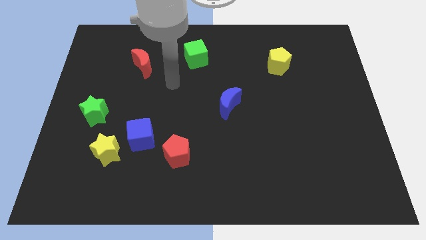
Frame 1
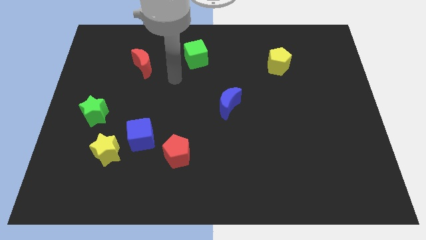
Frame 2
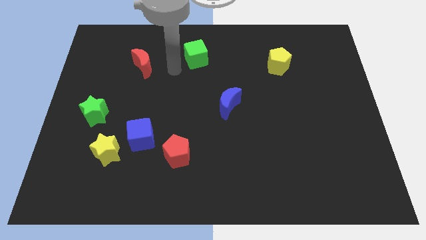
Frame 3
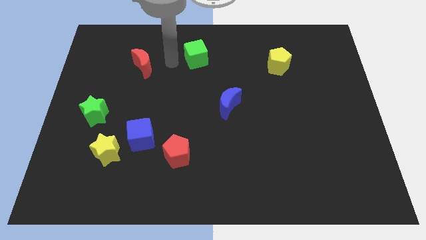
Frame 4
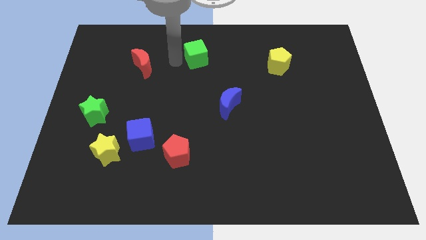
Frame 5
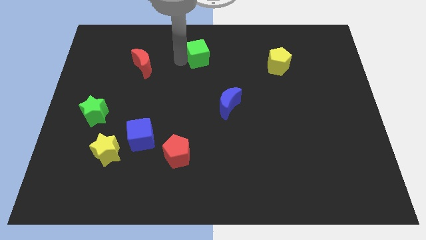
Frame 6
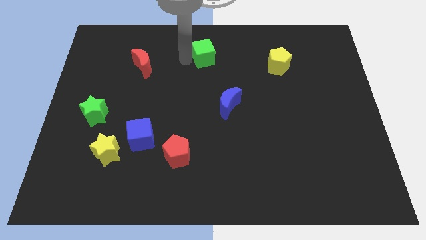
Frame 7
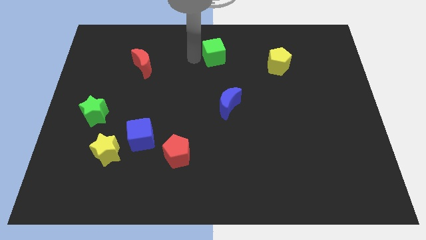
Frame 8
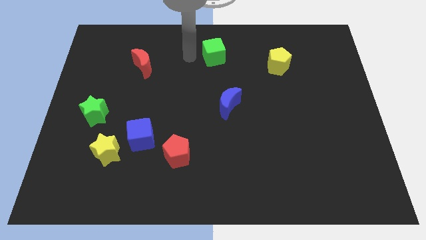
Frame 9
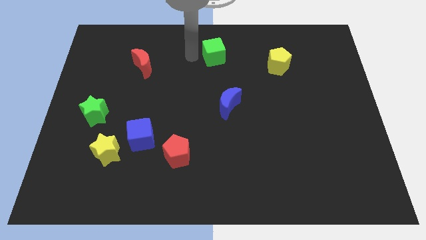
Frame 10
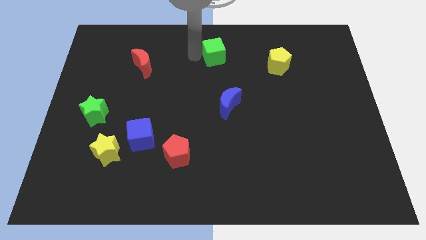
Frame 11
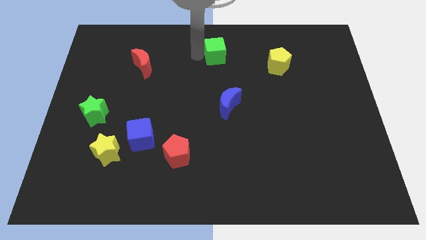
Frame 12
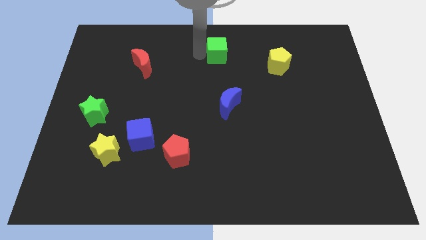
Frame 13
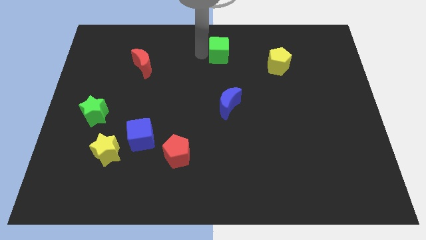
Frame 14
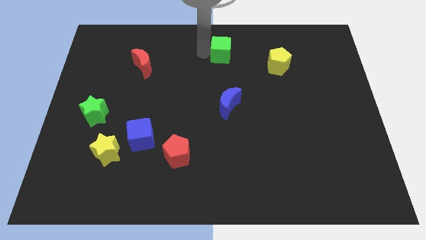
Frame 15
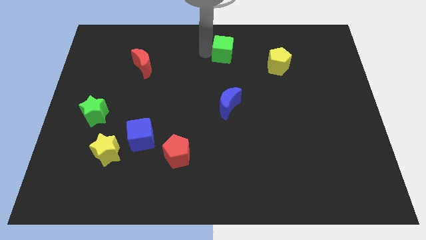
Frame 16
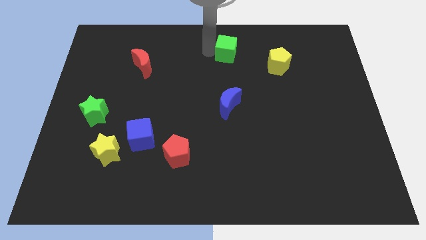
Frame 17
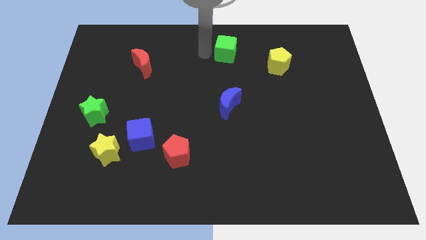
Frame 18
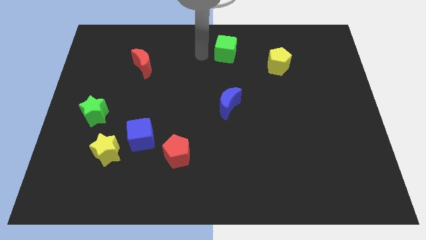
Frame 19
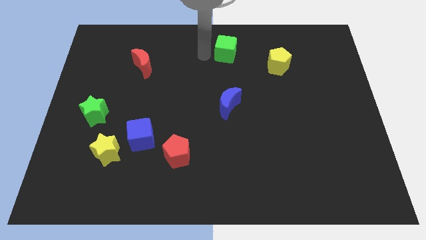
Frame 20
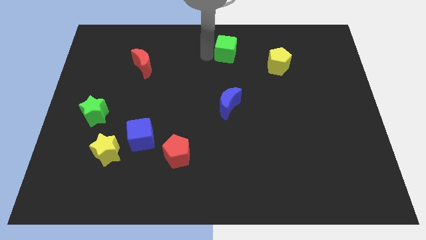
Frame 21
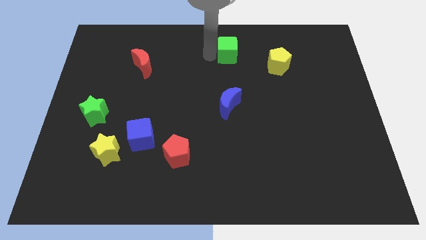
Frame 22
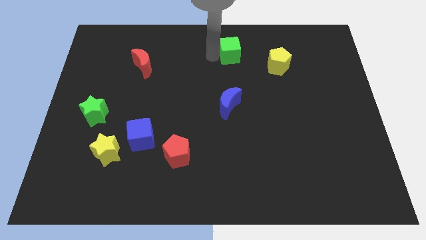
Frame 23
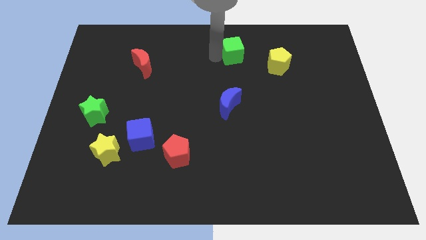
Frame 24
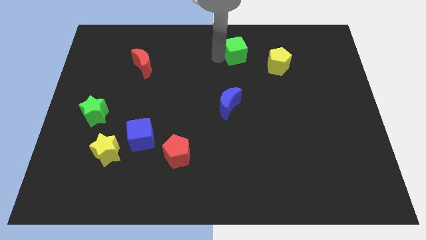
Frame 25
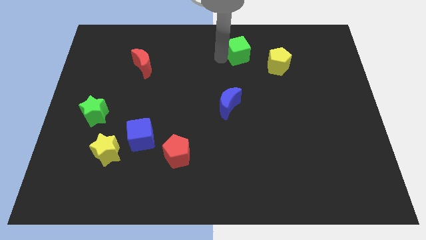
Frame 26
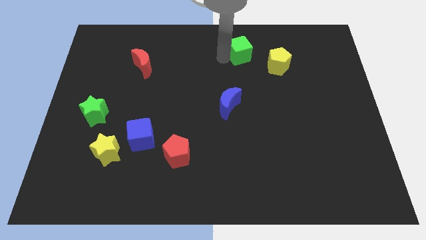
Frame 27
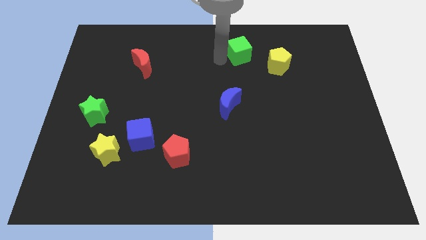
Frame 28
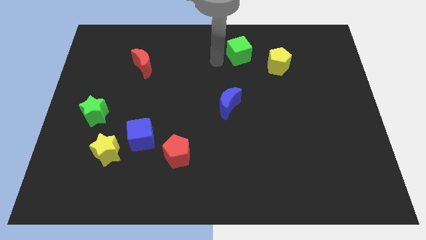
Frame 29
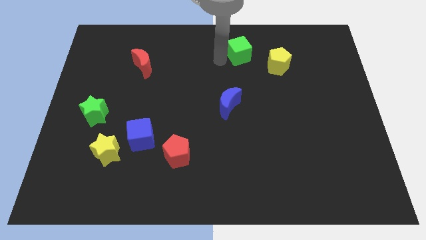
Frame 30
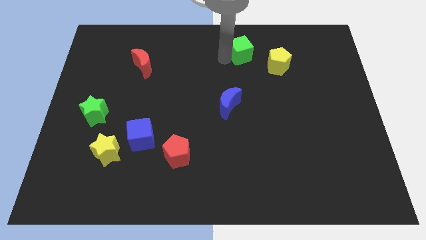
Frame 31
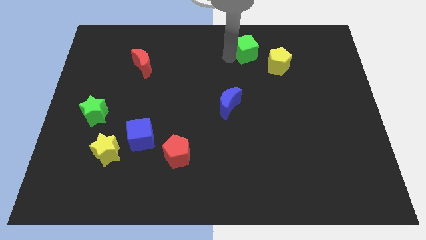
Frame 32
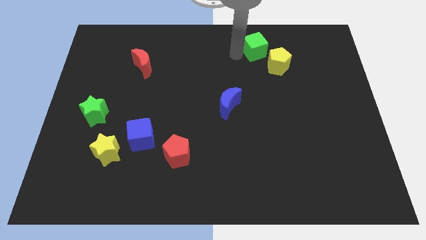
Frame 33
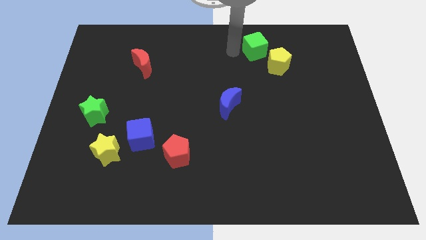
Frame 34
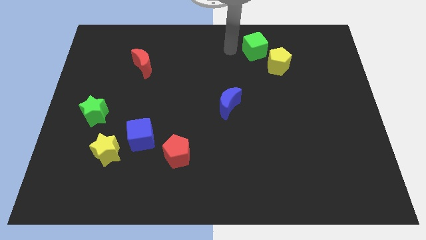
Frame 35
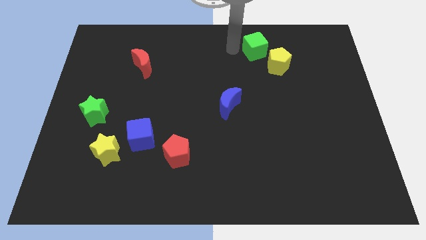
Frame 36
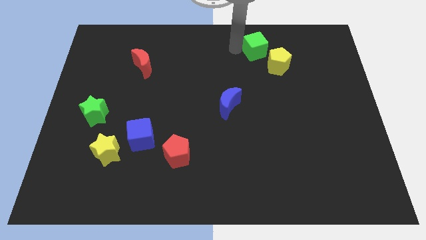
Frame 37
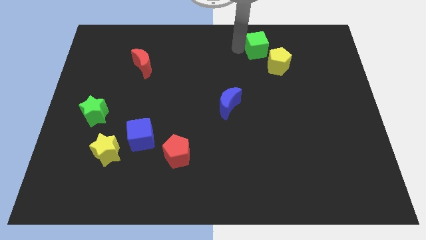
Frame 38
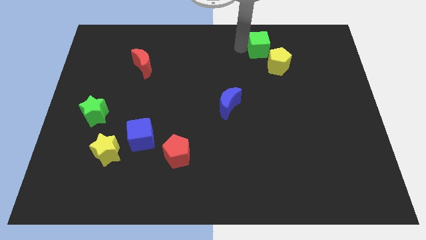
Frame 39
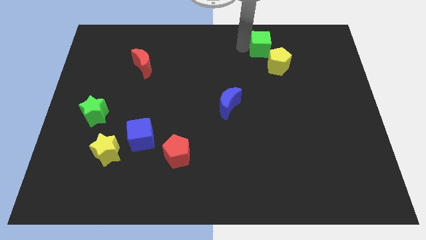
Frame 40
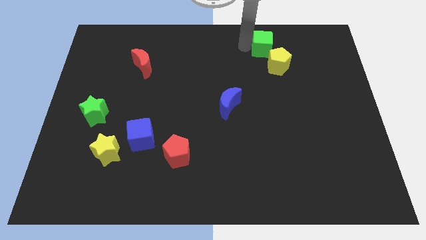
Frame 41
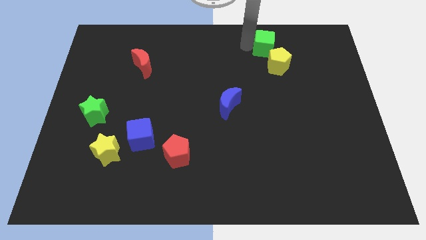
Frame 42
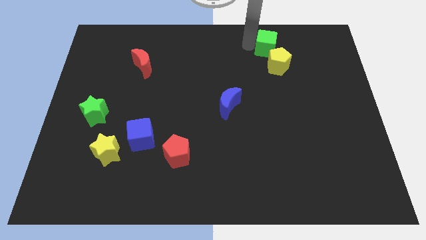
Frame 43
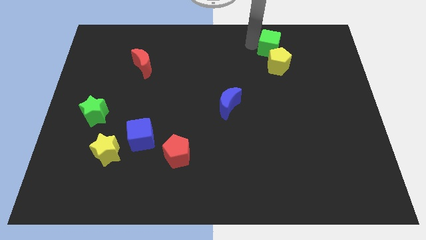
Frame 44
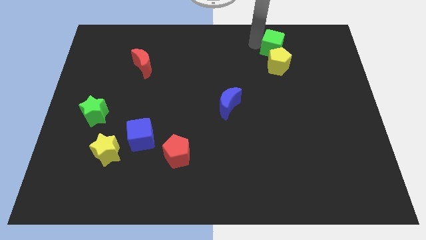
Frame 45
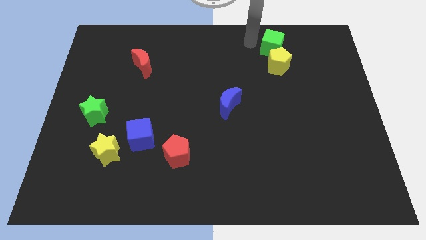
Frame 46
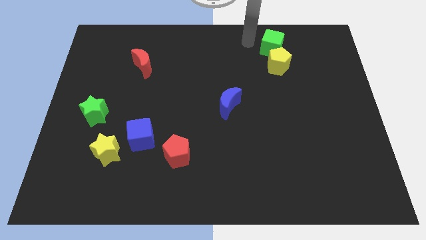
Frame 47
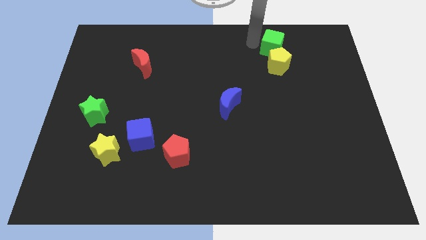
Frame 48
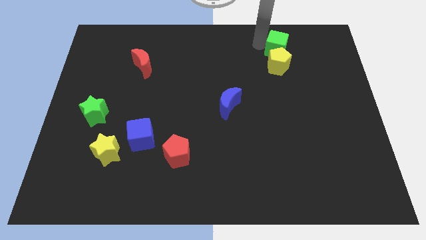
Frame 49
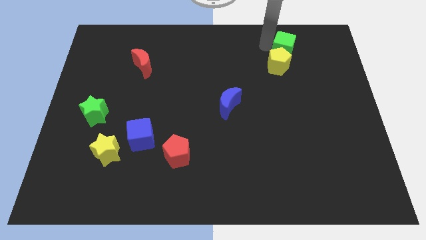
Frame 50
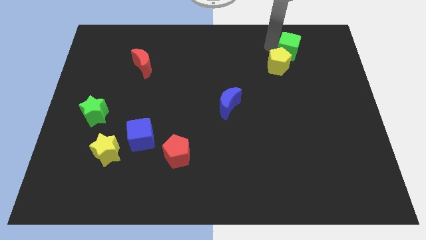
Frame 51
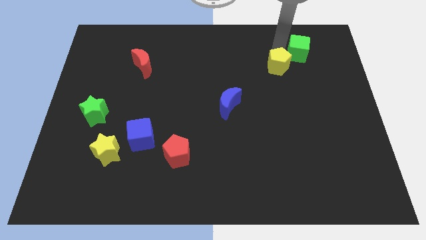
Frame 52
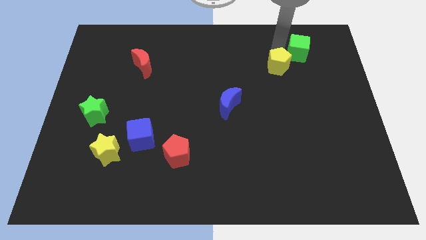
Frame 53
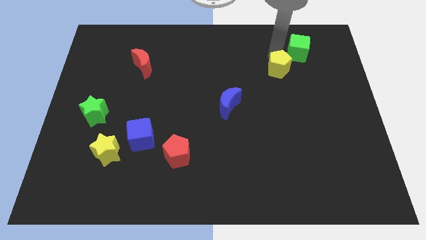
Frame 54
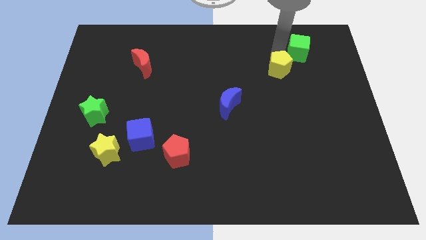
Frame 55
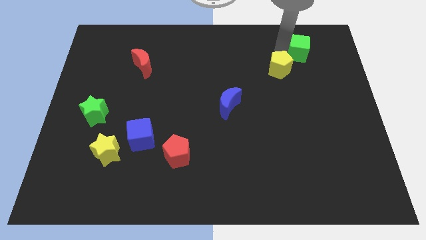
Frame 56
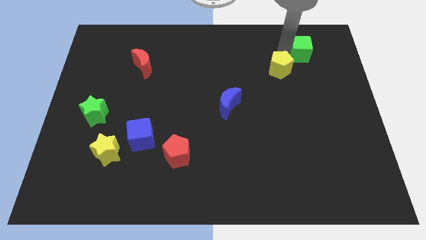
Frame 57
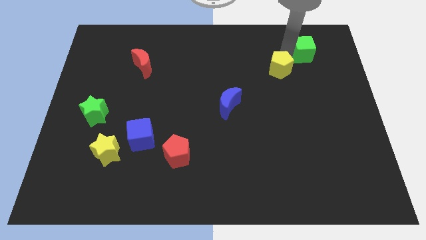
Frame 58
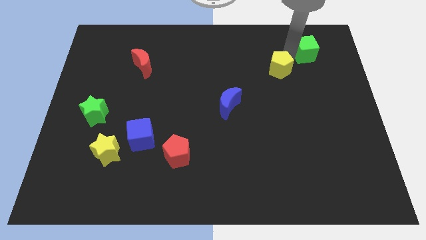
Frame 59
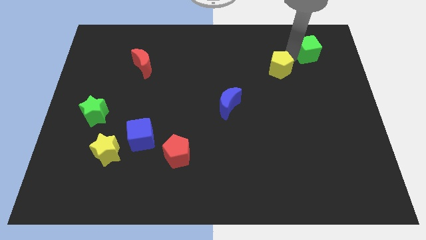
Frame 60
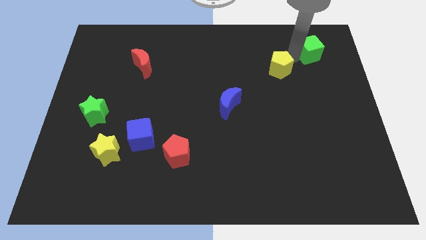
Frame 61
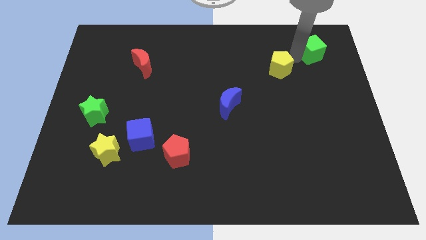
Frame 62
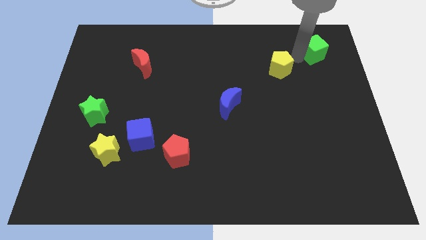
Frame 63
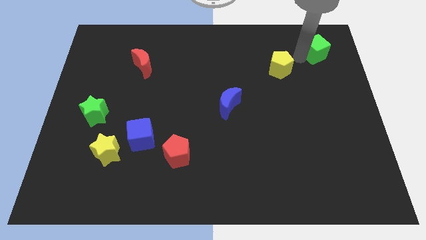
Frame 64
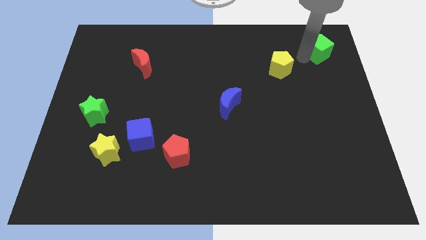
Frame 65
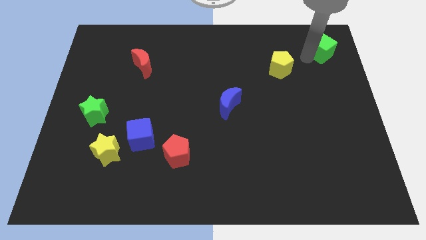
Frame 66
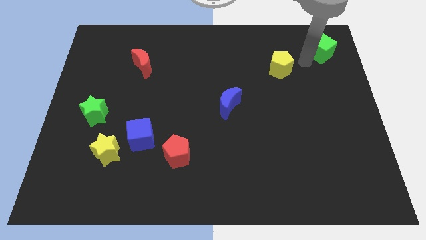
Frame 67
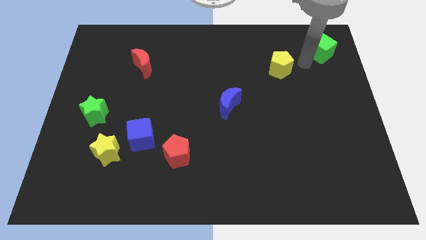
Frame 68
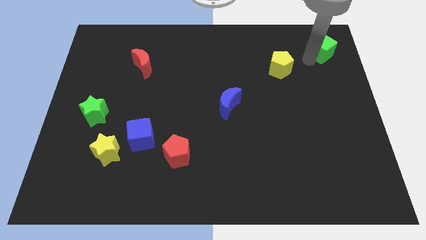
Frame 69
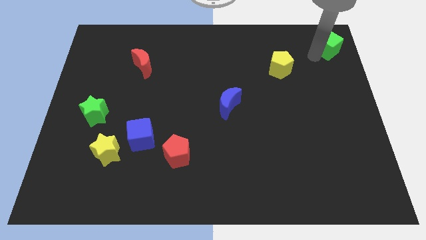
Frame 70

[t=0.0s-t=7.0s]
move the green cube to the upper right corner
